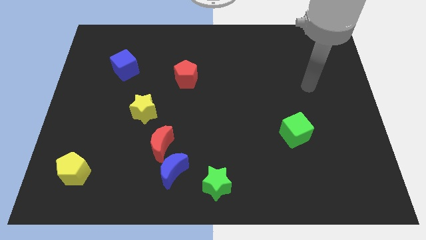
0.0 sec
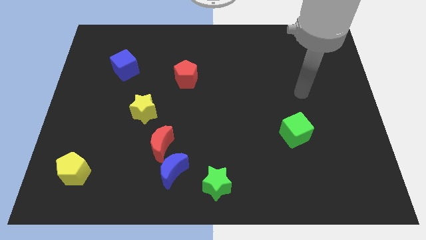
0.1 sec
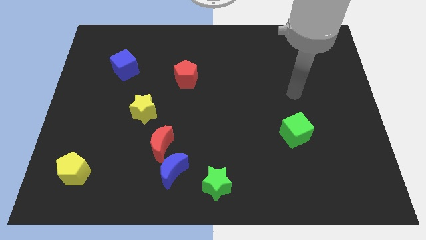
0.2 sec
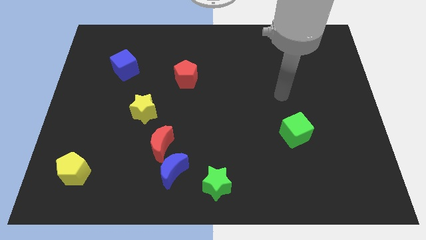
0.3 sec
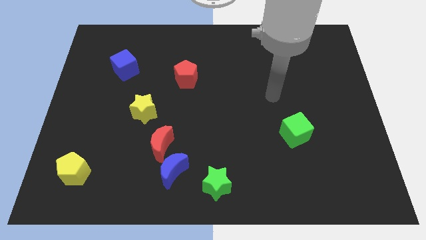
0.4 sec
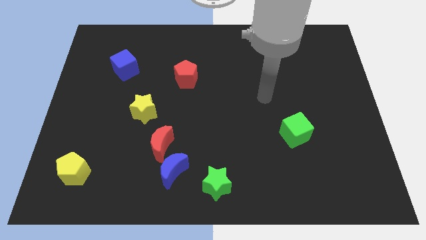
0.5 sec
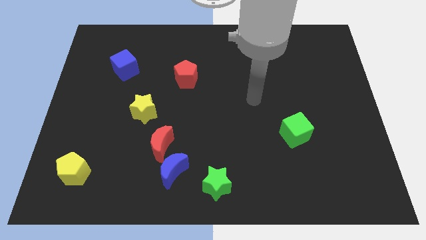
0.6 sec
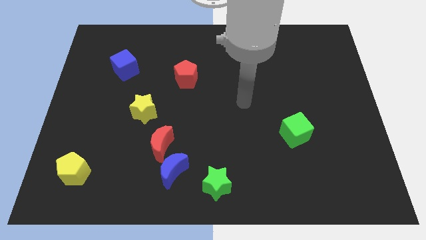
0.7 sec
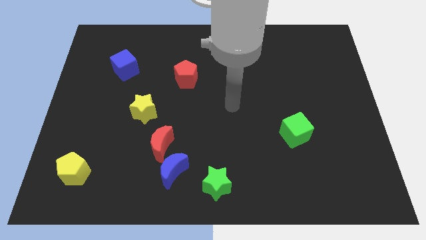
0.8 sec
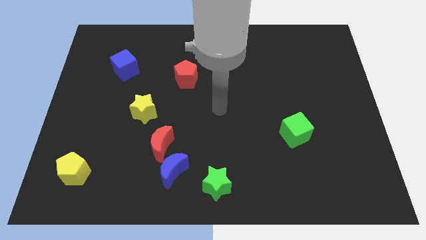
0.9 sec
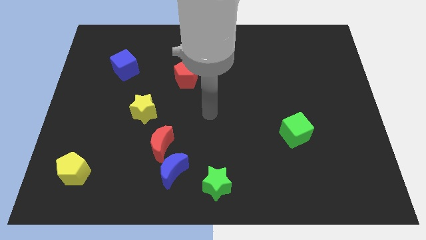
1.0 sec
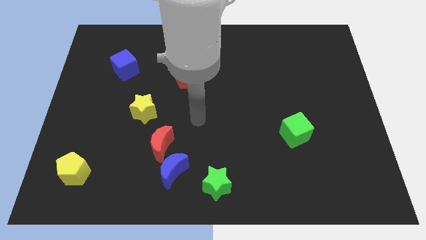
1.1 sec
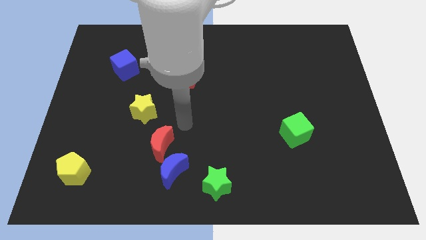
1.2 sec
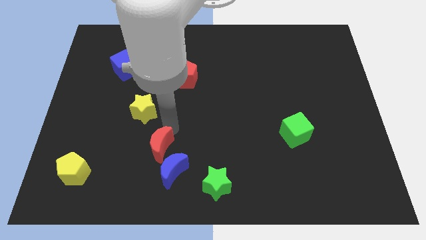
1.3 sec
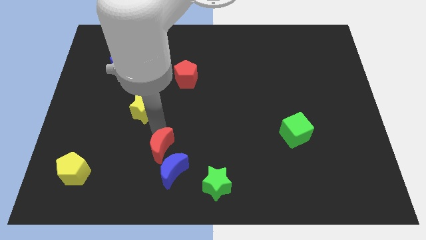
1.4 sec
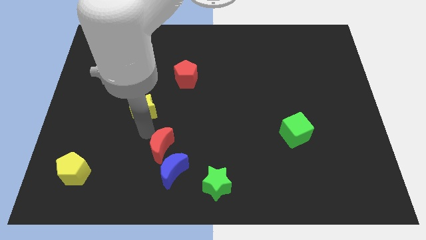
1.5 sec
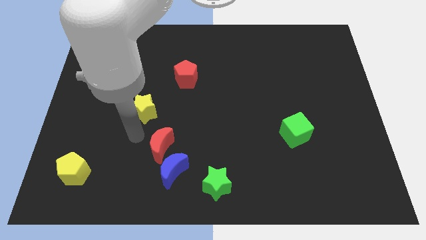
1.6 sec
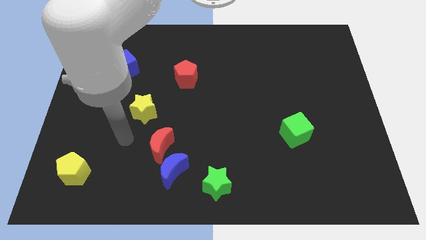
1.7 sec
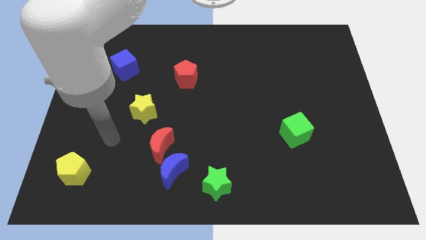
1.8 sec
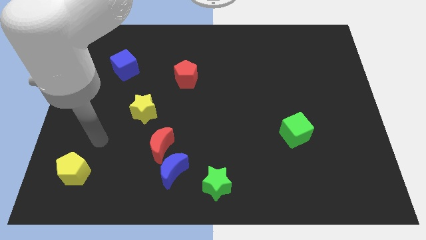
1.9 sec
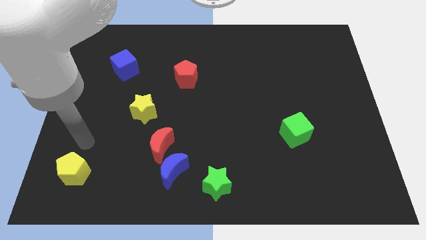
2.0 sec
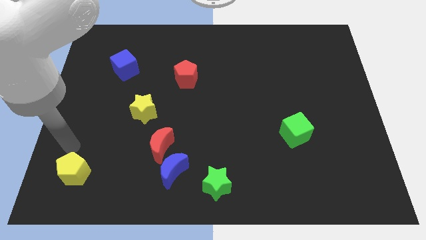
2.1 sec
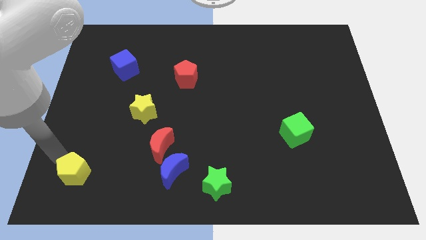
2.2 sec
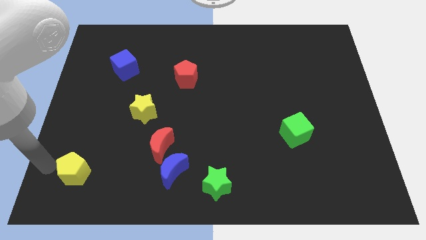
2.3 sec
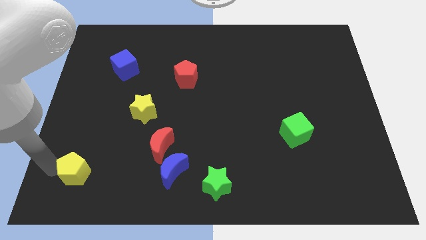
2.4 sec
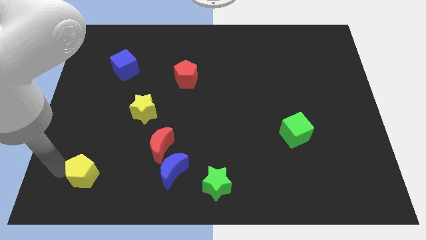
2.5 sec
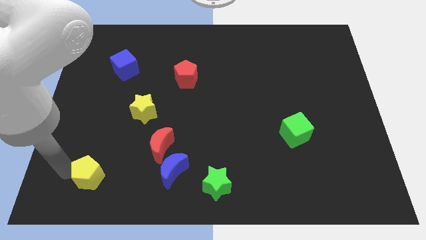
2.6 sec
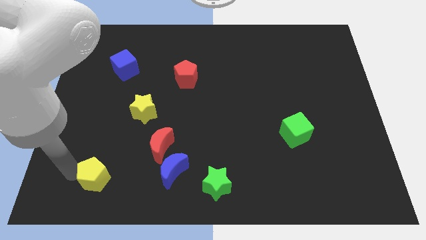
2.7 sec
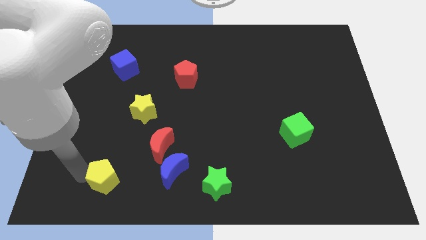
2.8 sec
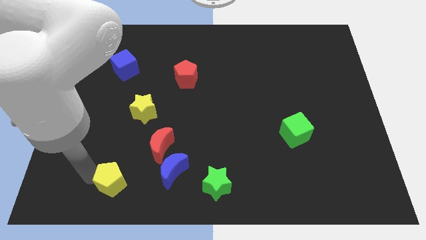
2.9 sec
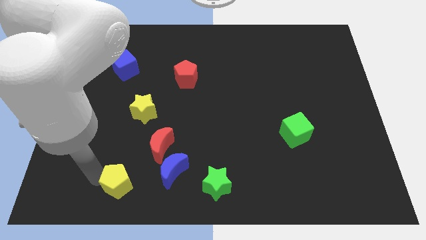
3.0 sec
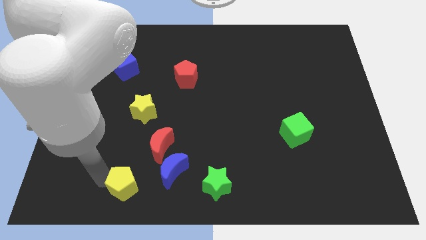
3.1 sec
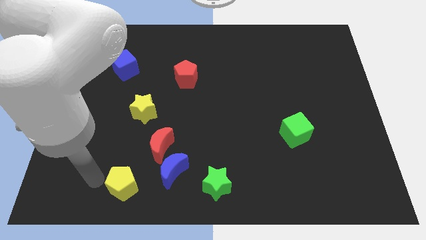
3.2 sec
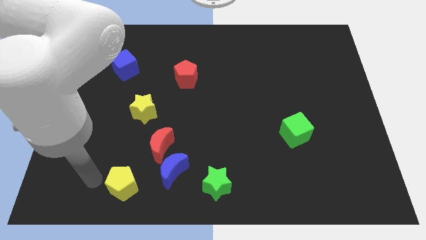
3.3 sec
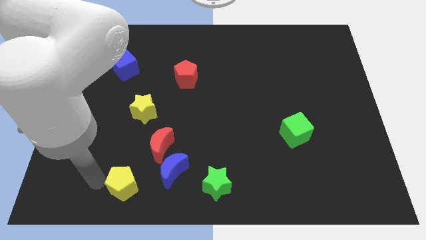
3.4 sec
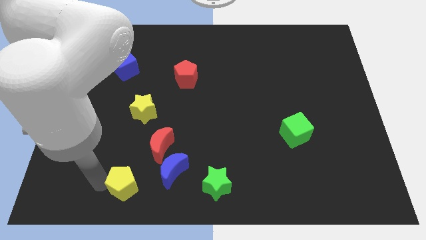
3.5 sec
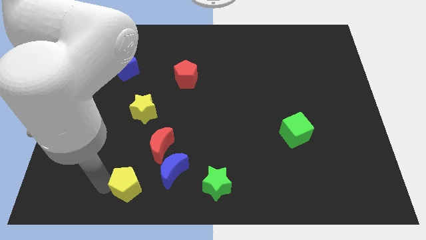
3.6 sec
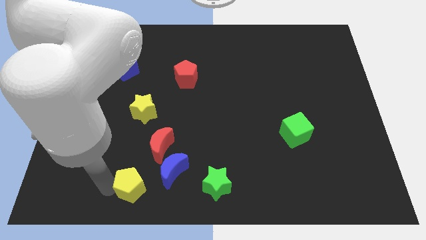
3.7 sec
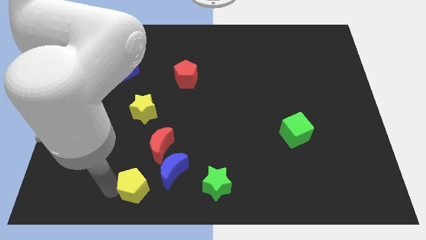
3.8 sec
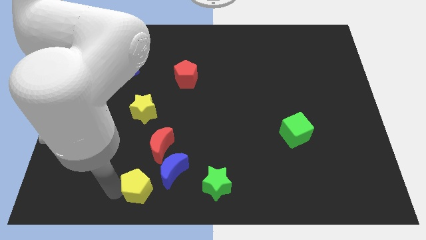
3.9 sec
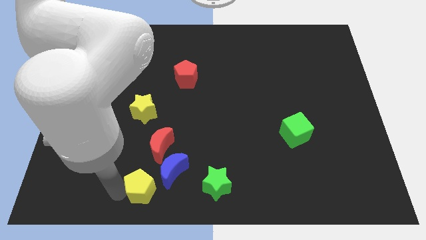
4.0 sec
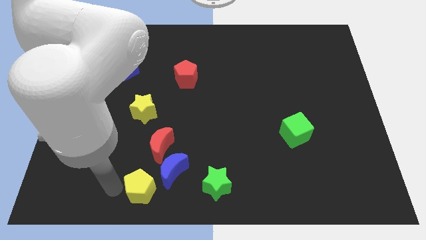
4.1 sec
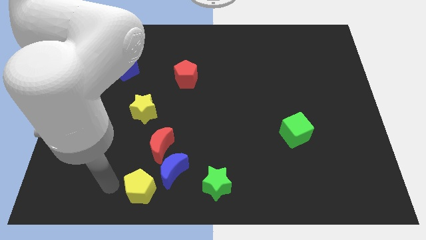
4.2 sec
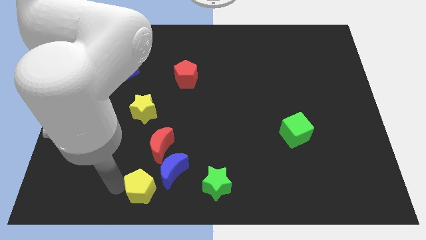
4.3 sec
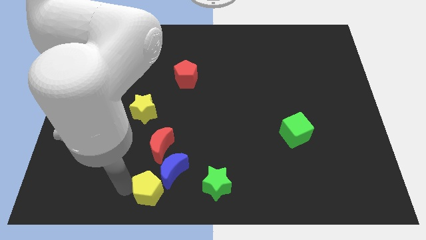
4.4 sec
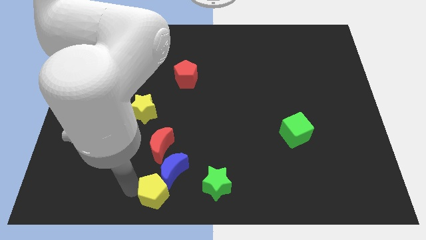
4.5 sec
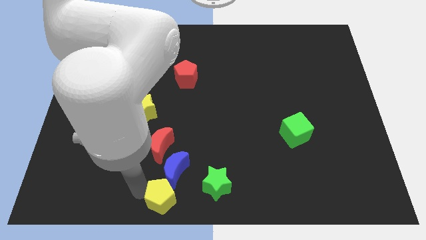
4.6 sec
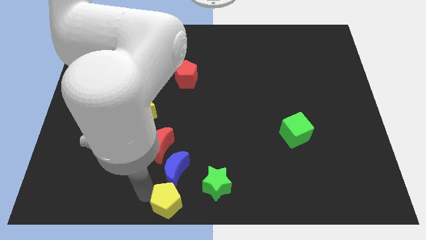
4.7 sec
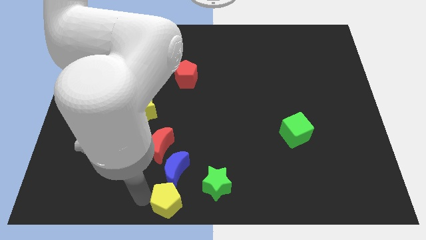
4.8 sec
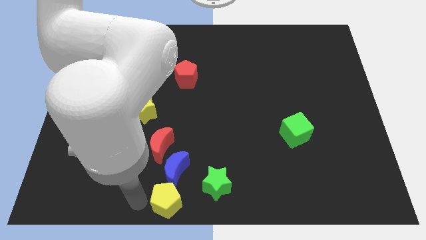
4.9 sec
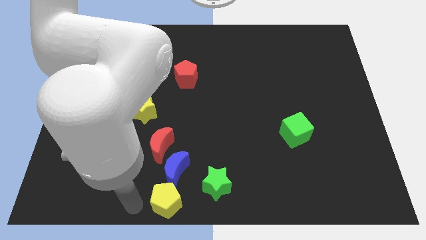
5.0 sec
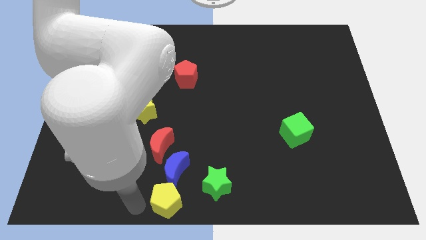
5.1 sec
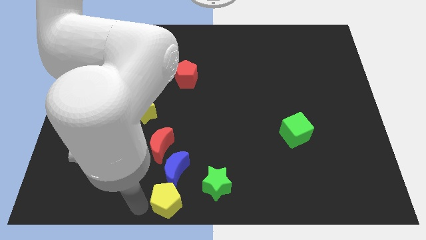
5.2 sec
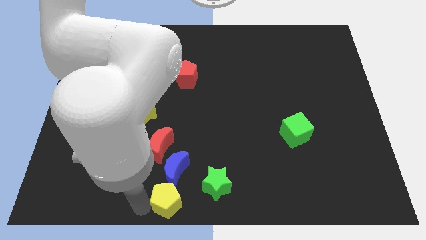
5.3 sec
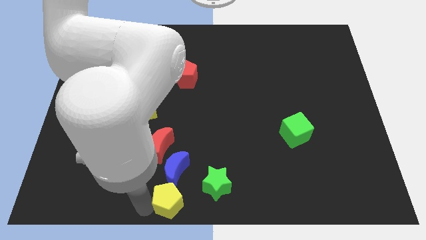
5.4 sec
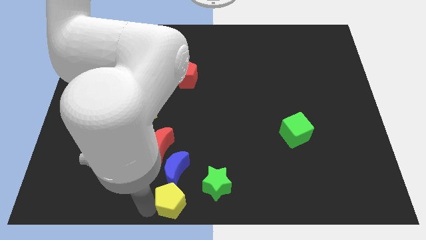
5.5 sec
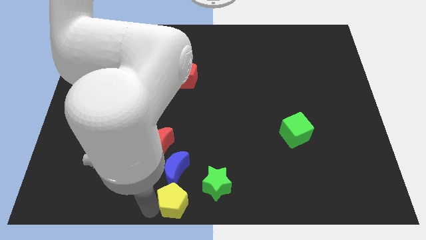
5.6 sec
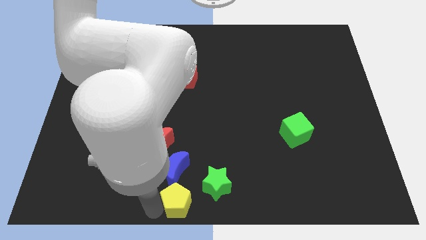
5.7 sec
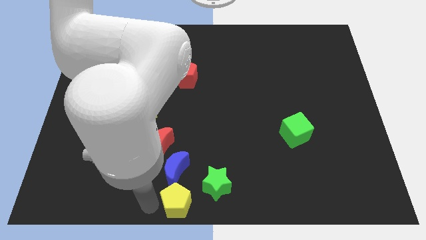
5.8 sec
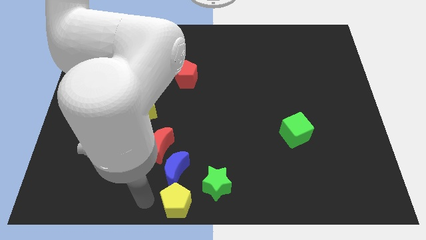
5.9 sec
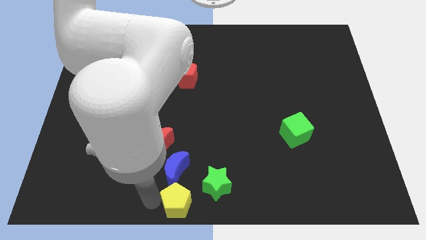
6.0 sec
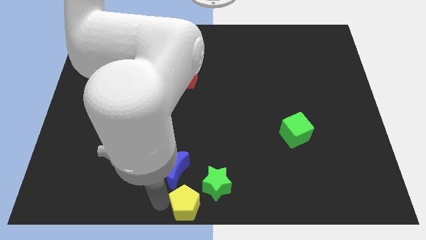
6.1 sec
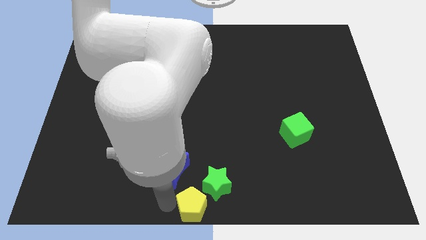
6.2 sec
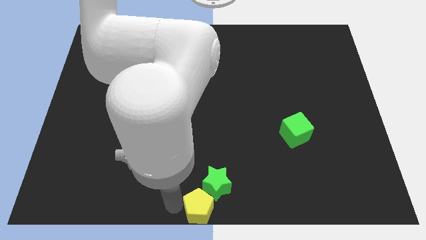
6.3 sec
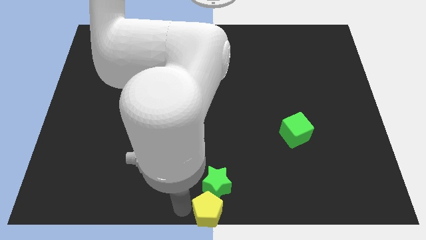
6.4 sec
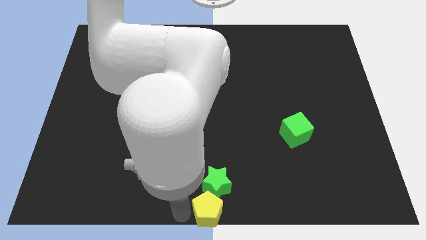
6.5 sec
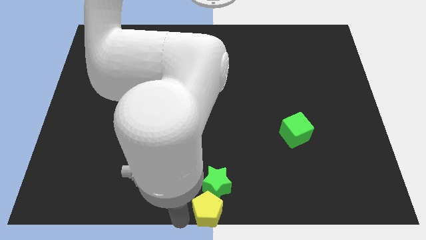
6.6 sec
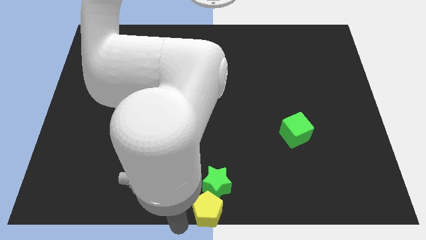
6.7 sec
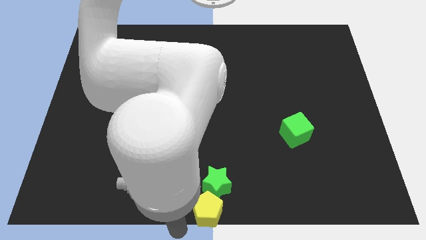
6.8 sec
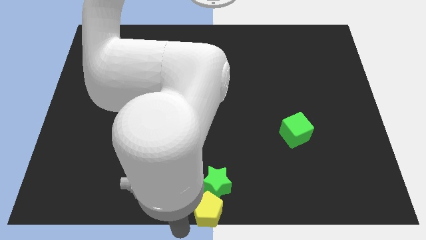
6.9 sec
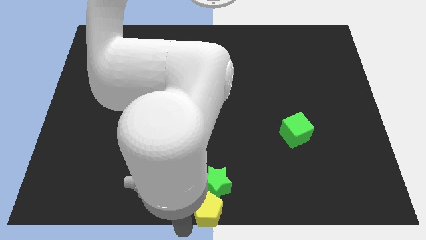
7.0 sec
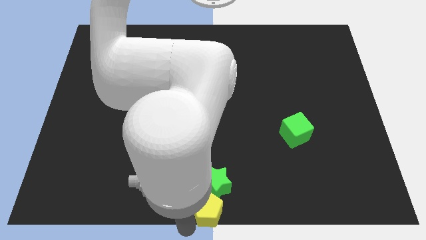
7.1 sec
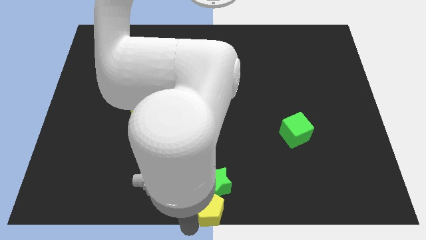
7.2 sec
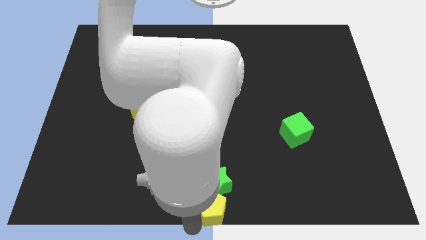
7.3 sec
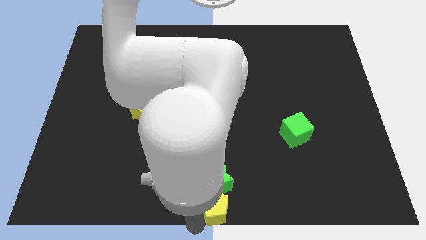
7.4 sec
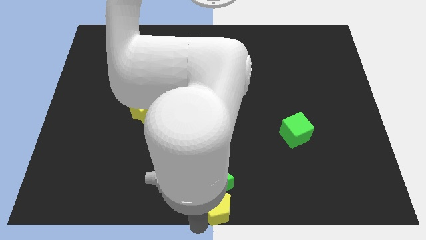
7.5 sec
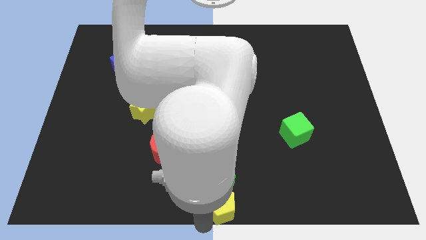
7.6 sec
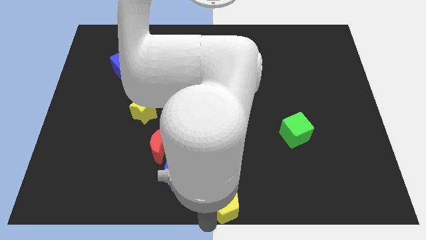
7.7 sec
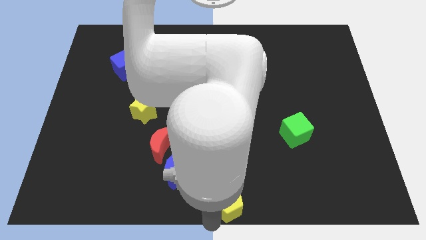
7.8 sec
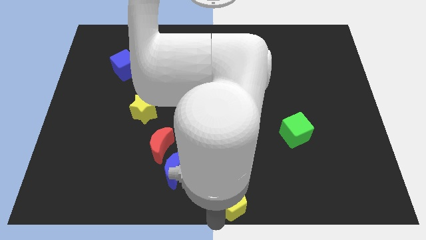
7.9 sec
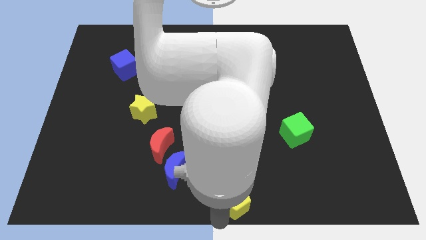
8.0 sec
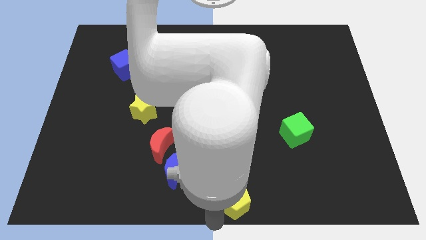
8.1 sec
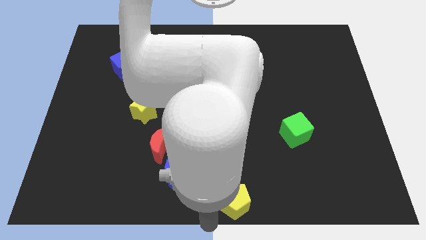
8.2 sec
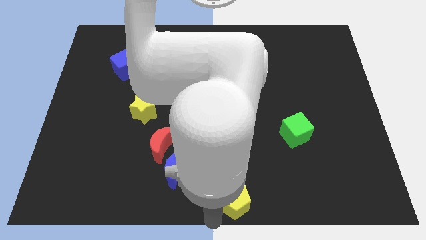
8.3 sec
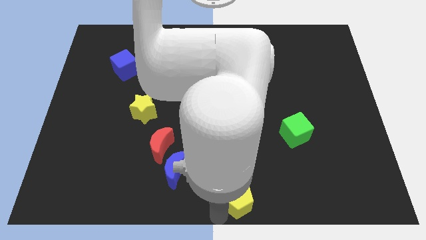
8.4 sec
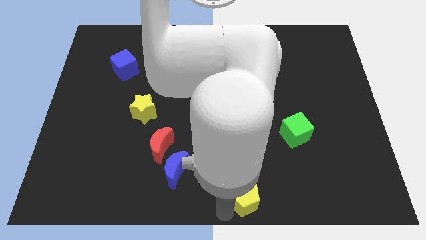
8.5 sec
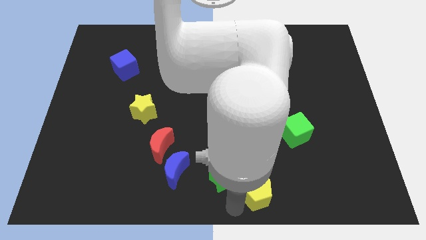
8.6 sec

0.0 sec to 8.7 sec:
push the yellow pentagon right of the green star
